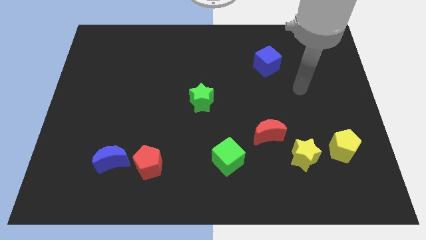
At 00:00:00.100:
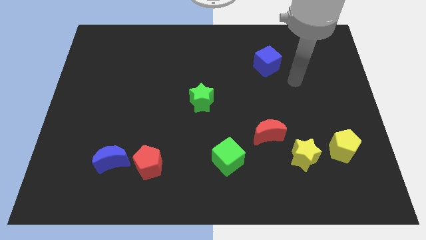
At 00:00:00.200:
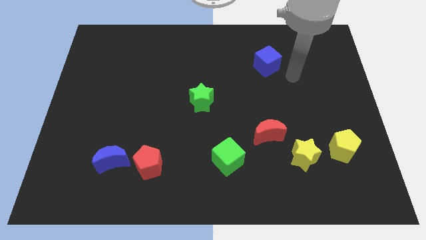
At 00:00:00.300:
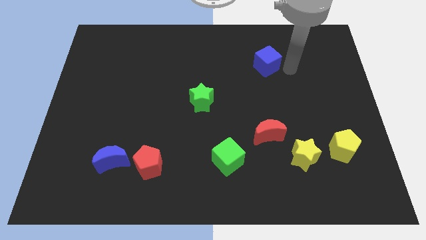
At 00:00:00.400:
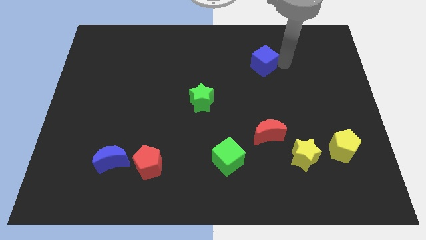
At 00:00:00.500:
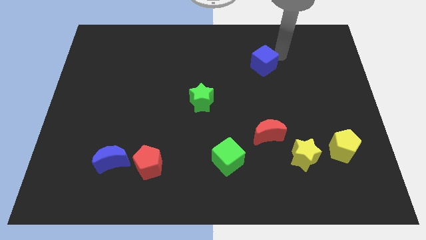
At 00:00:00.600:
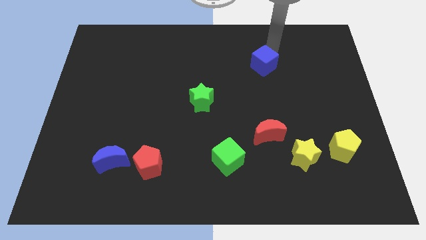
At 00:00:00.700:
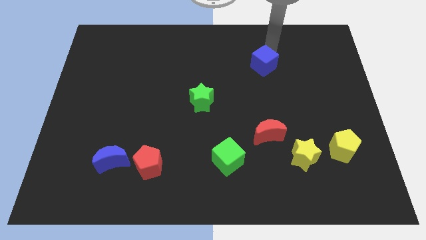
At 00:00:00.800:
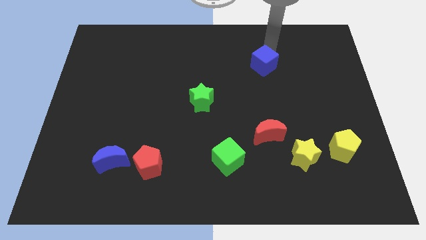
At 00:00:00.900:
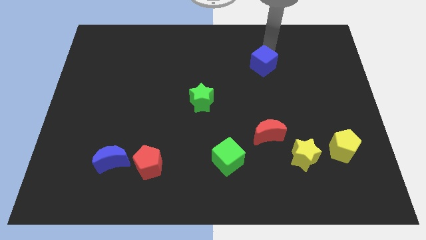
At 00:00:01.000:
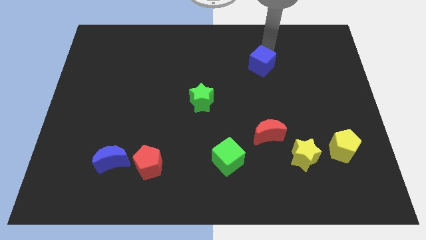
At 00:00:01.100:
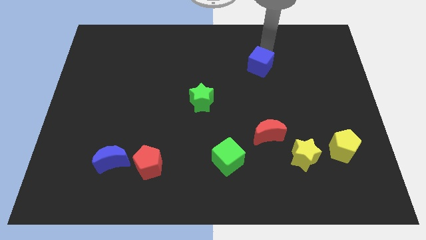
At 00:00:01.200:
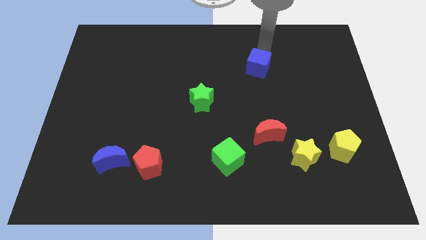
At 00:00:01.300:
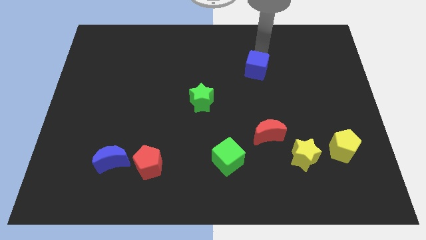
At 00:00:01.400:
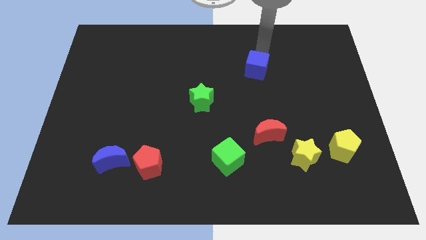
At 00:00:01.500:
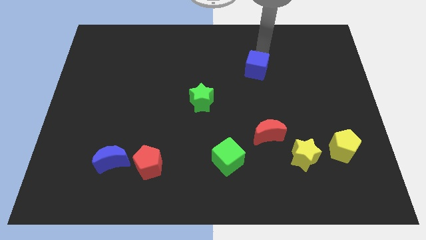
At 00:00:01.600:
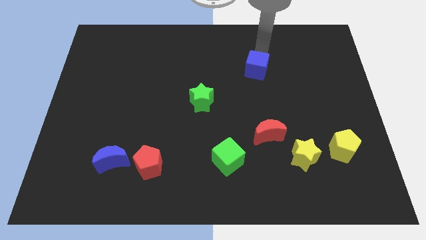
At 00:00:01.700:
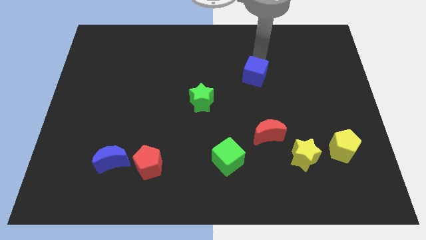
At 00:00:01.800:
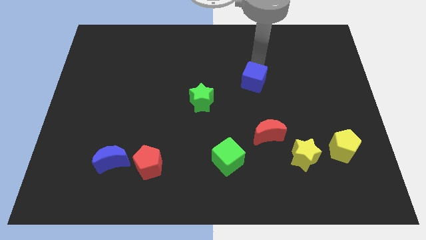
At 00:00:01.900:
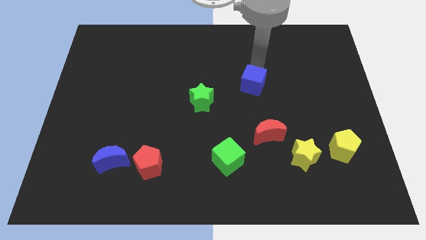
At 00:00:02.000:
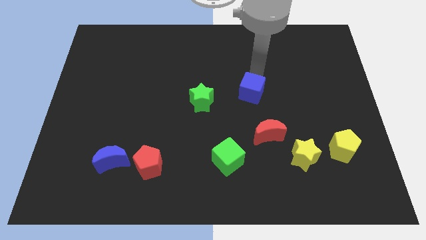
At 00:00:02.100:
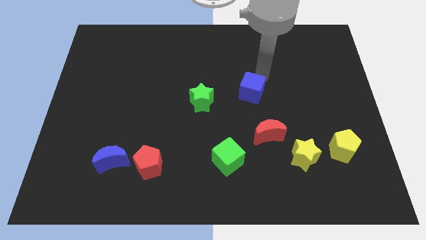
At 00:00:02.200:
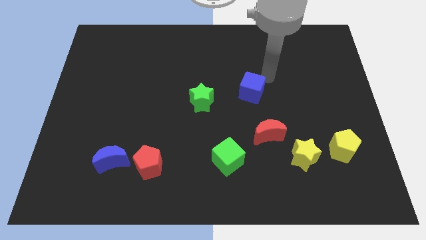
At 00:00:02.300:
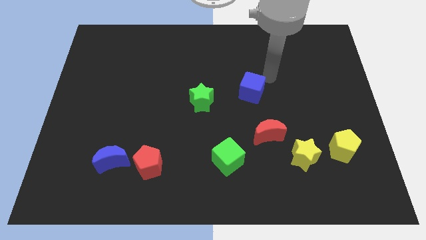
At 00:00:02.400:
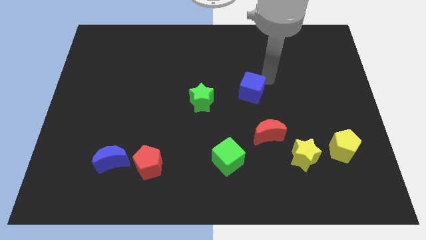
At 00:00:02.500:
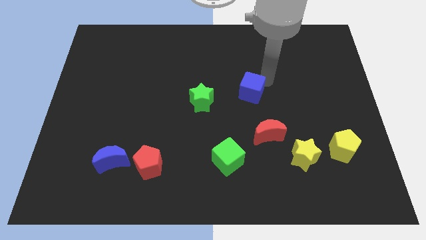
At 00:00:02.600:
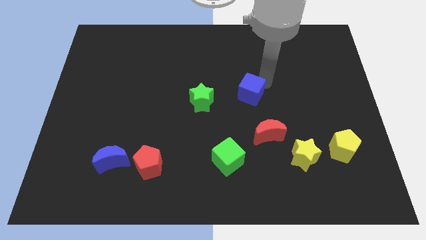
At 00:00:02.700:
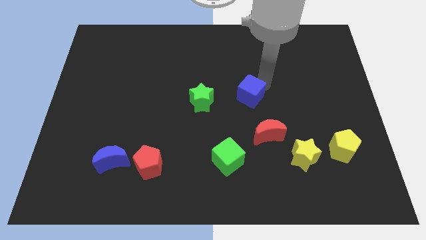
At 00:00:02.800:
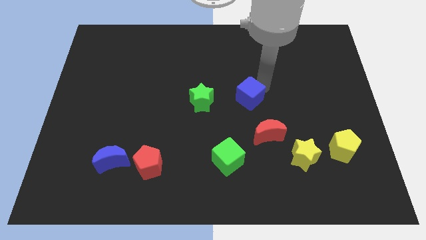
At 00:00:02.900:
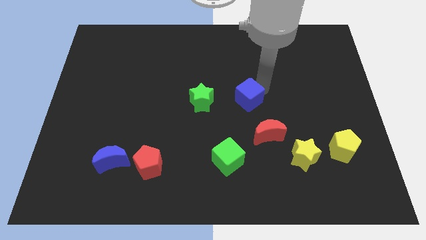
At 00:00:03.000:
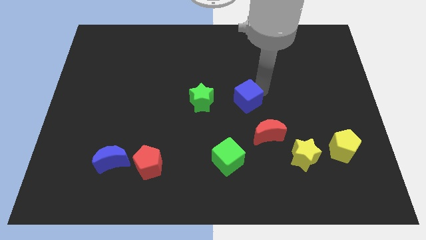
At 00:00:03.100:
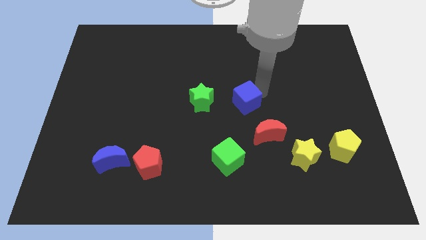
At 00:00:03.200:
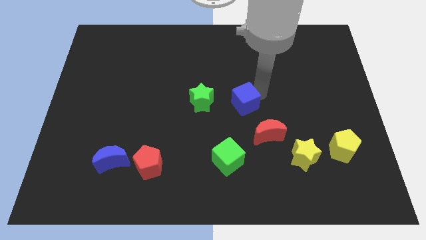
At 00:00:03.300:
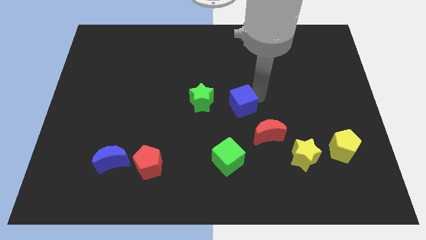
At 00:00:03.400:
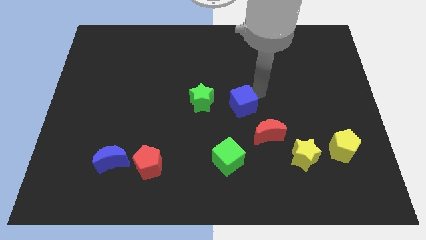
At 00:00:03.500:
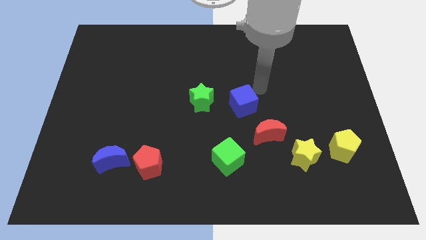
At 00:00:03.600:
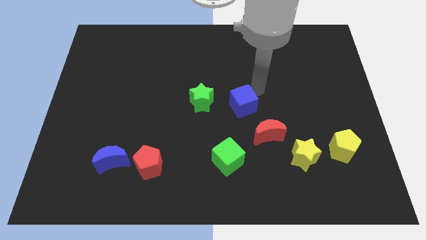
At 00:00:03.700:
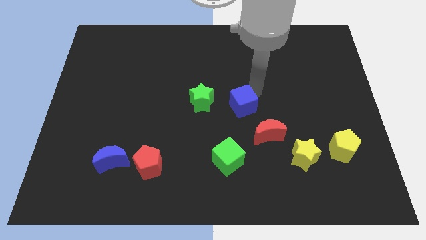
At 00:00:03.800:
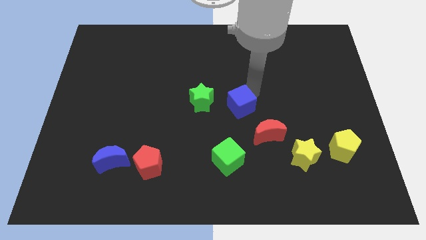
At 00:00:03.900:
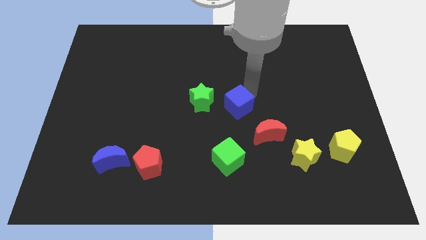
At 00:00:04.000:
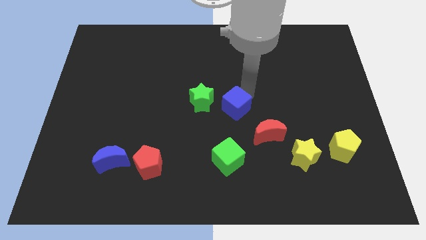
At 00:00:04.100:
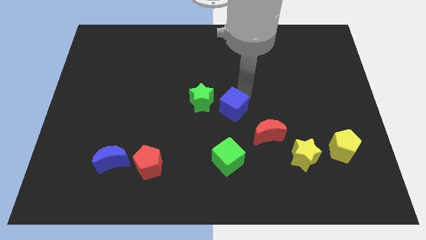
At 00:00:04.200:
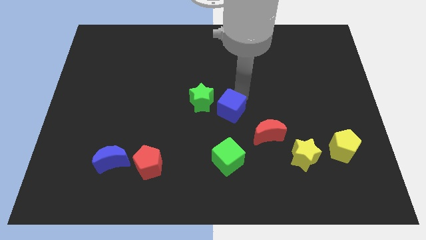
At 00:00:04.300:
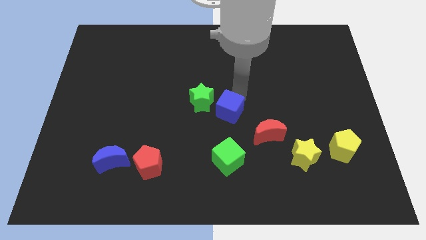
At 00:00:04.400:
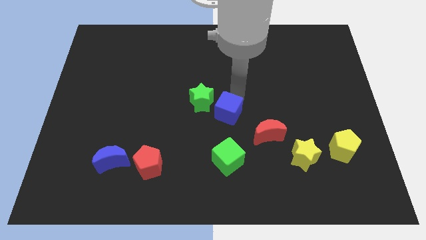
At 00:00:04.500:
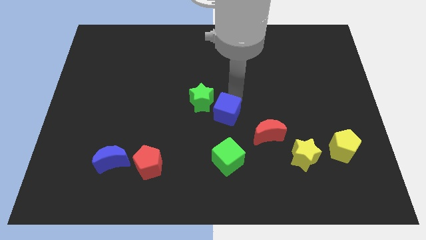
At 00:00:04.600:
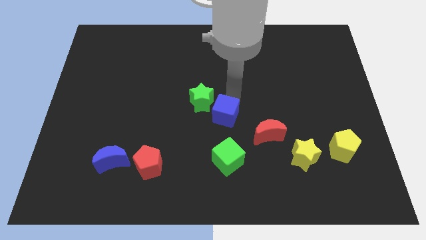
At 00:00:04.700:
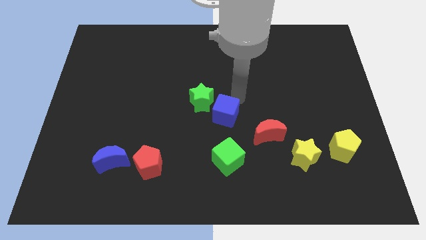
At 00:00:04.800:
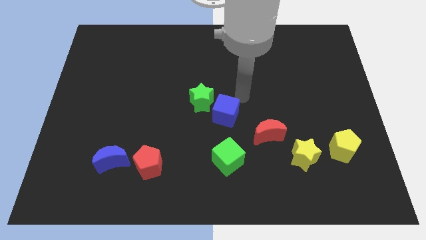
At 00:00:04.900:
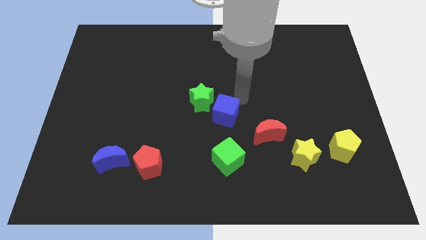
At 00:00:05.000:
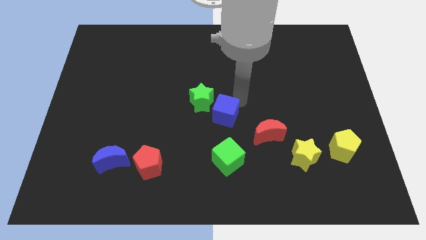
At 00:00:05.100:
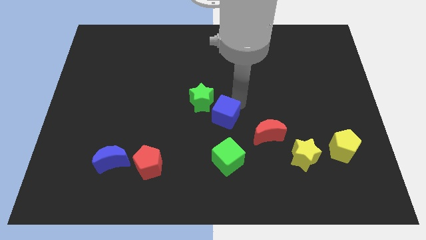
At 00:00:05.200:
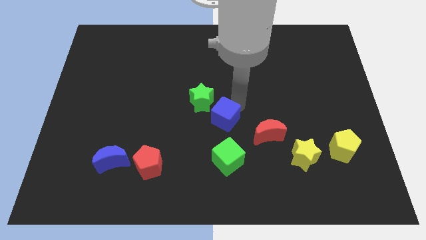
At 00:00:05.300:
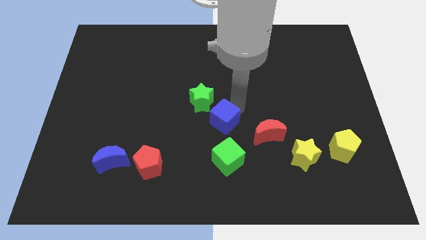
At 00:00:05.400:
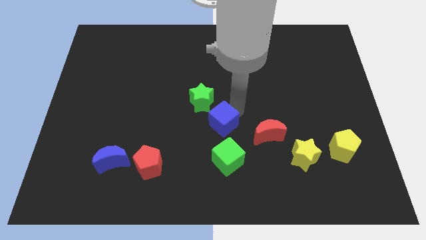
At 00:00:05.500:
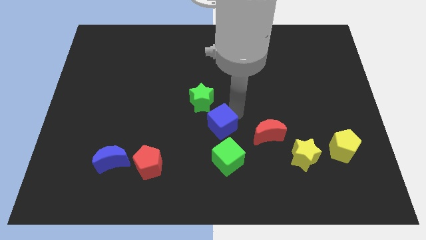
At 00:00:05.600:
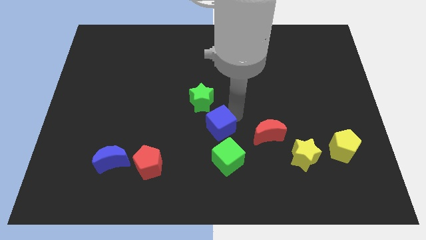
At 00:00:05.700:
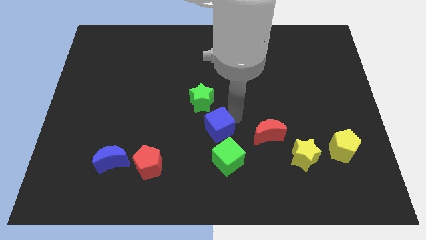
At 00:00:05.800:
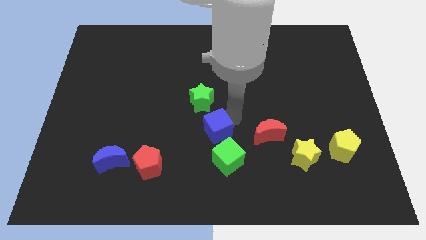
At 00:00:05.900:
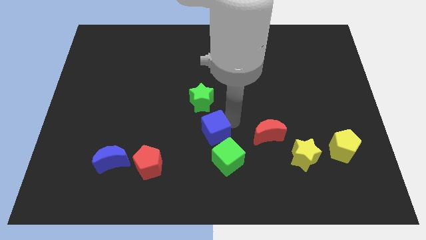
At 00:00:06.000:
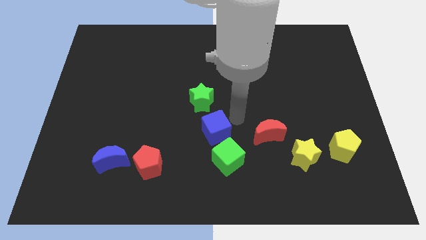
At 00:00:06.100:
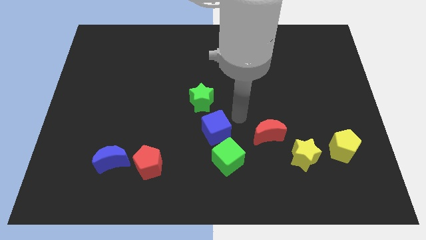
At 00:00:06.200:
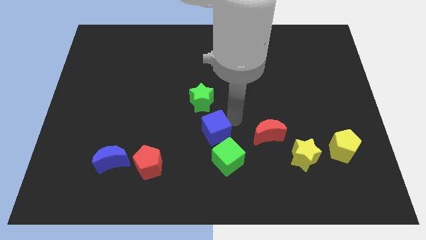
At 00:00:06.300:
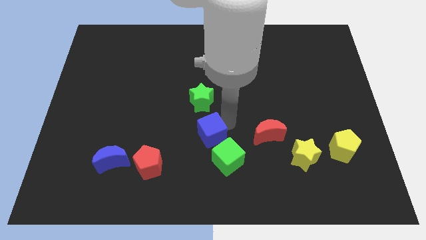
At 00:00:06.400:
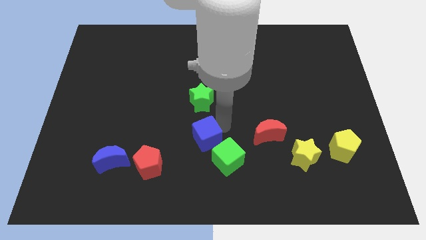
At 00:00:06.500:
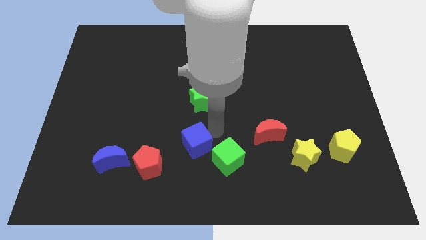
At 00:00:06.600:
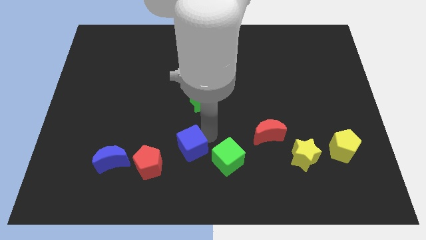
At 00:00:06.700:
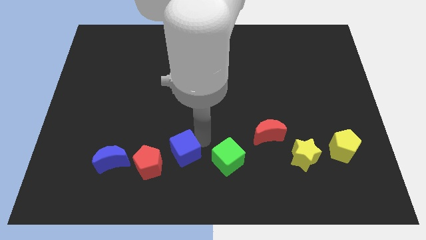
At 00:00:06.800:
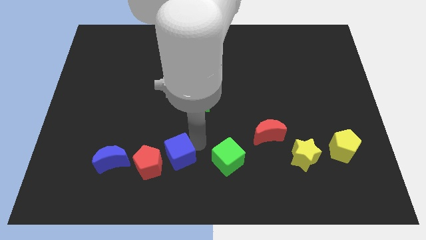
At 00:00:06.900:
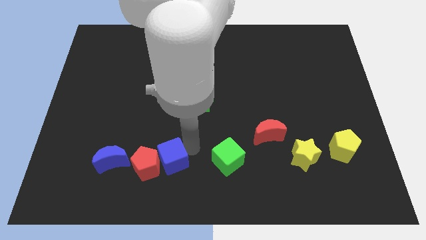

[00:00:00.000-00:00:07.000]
move the blue cube next to the red pentagon
